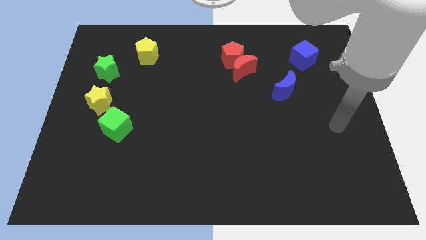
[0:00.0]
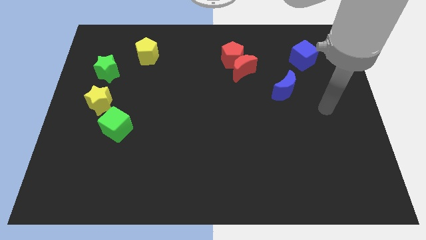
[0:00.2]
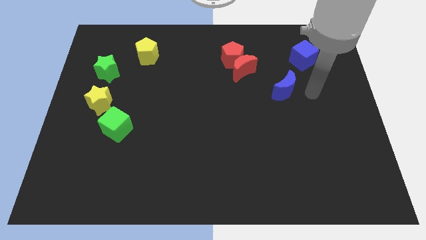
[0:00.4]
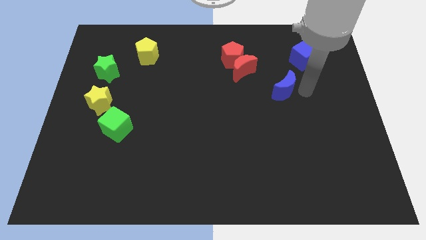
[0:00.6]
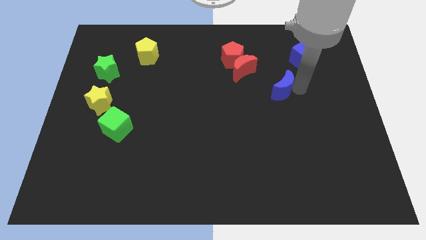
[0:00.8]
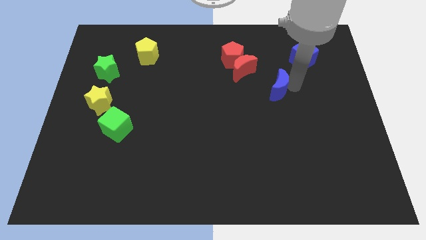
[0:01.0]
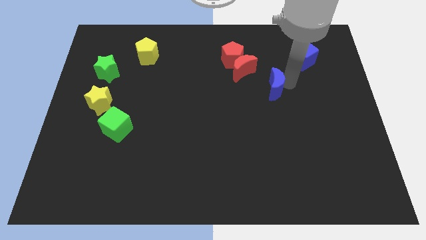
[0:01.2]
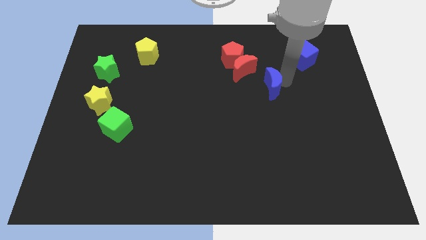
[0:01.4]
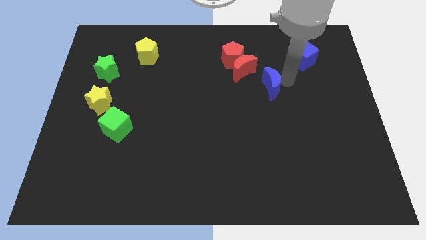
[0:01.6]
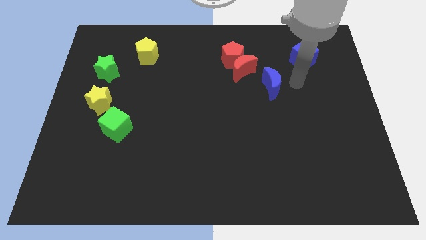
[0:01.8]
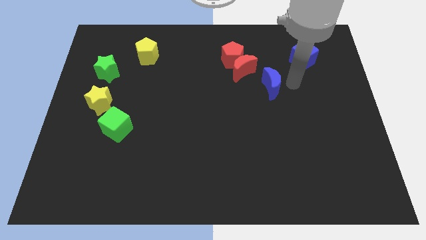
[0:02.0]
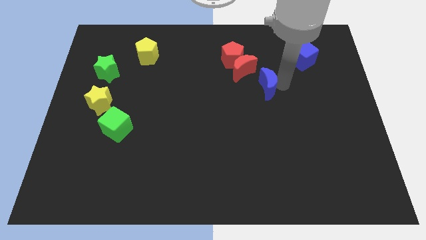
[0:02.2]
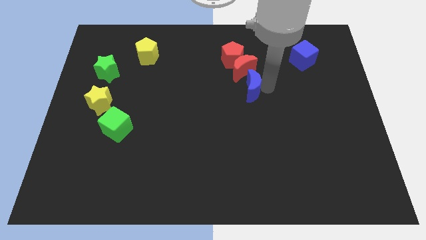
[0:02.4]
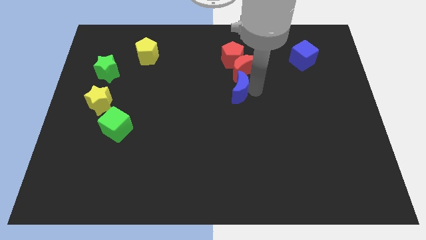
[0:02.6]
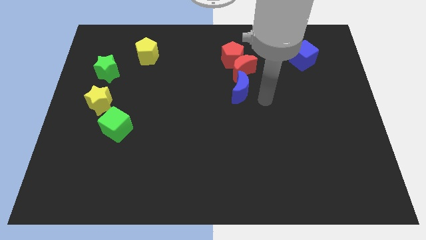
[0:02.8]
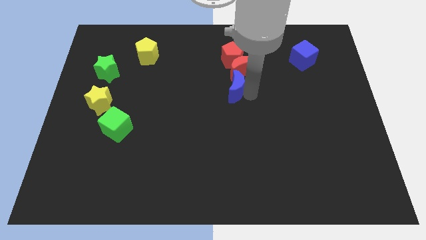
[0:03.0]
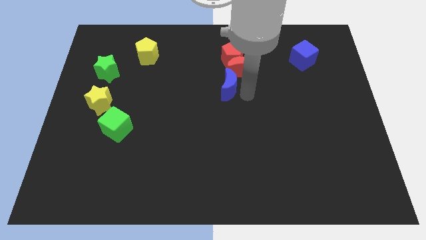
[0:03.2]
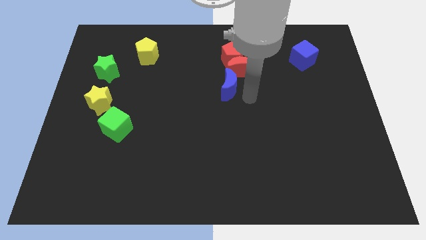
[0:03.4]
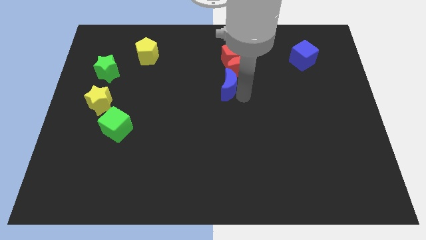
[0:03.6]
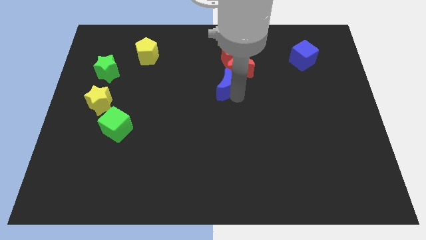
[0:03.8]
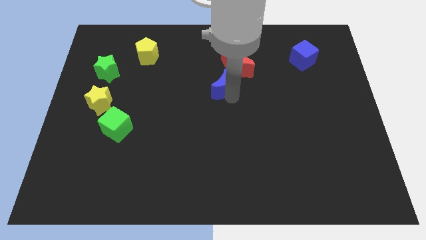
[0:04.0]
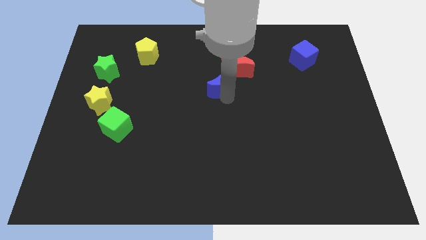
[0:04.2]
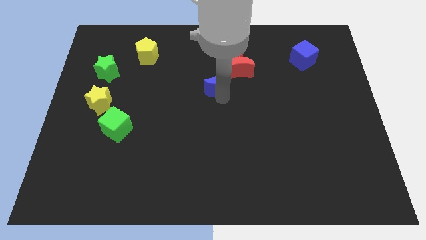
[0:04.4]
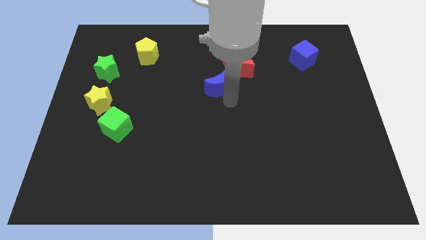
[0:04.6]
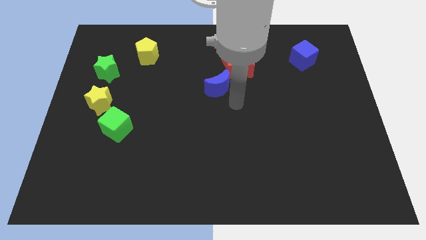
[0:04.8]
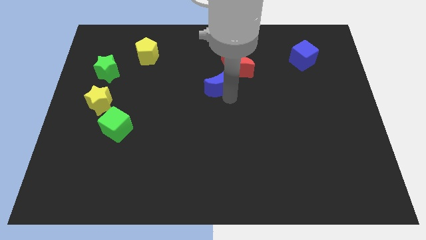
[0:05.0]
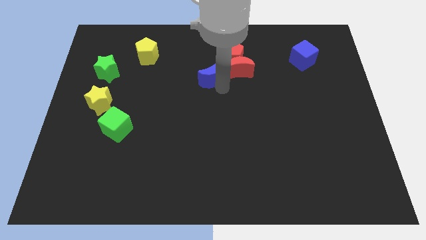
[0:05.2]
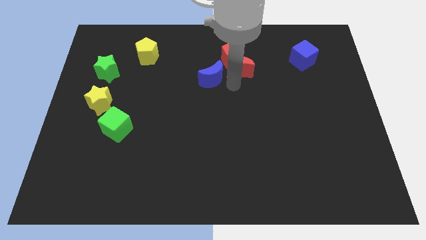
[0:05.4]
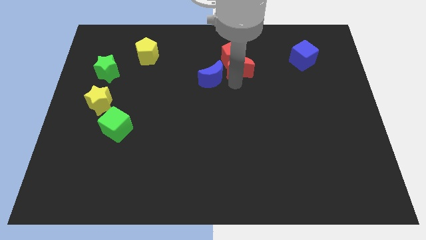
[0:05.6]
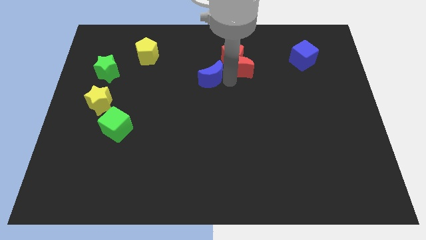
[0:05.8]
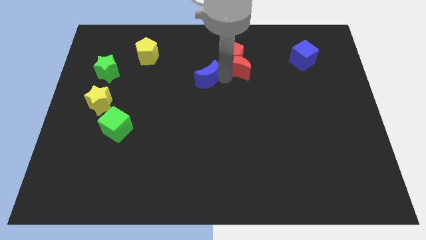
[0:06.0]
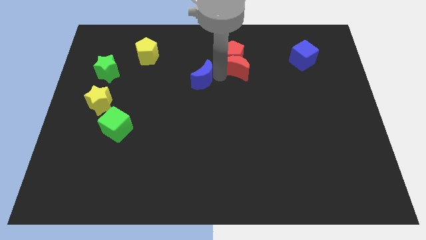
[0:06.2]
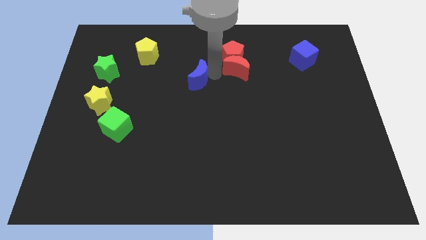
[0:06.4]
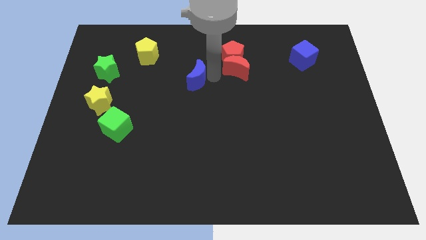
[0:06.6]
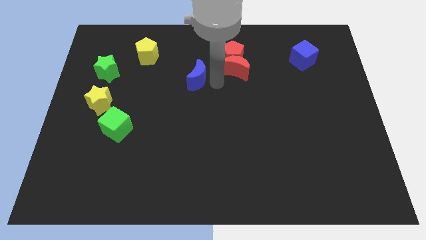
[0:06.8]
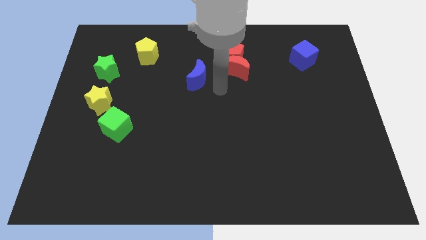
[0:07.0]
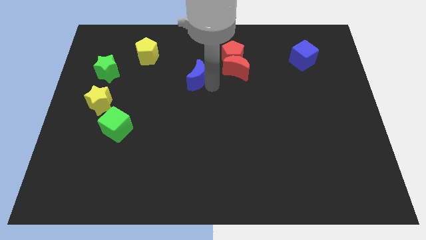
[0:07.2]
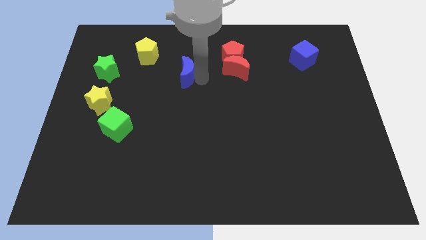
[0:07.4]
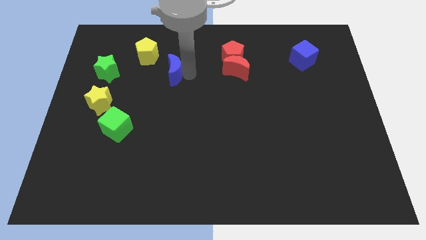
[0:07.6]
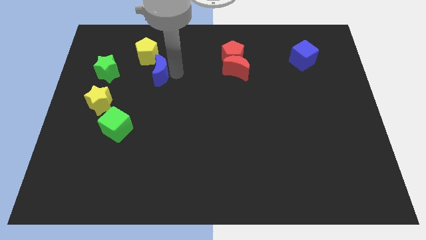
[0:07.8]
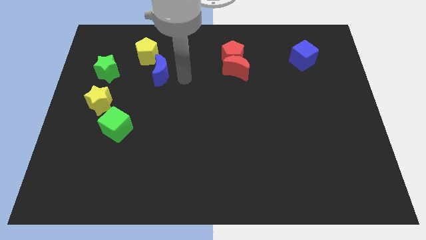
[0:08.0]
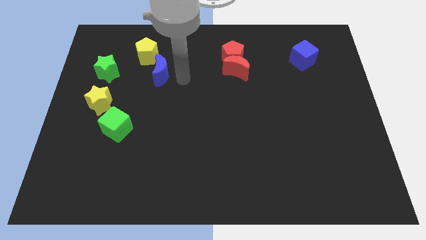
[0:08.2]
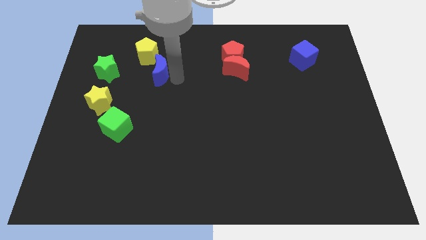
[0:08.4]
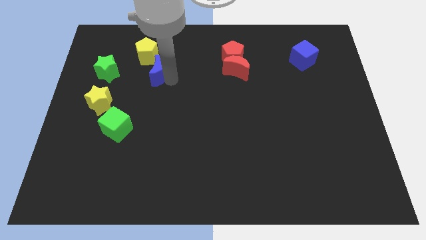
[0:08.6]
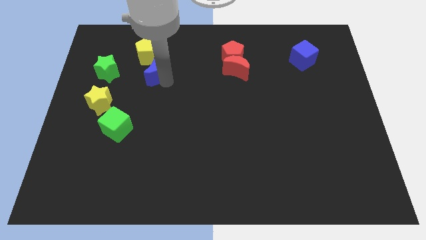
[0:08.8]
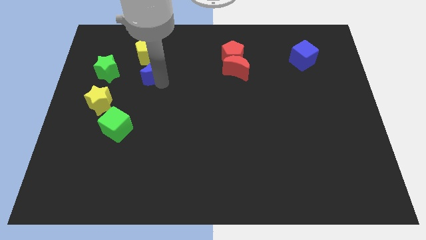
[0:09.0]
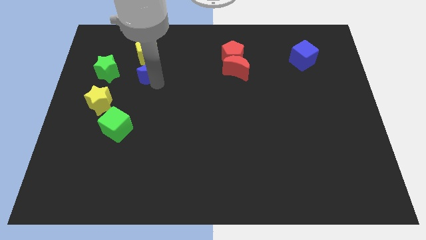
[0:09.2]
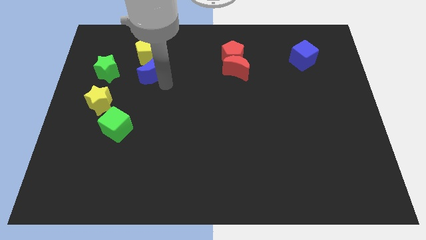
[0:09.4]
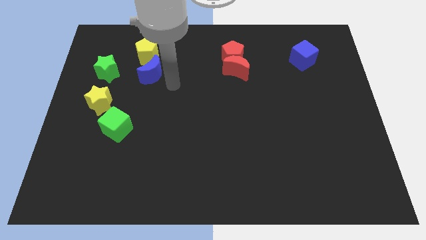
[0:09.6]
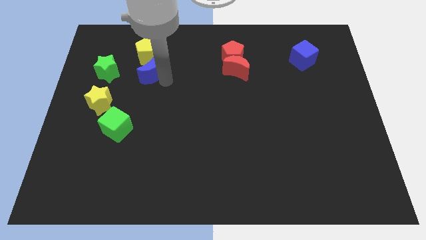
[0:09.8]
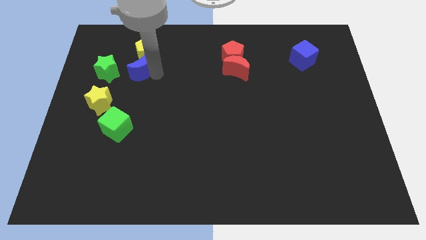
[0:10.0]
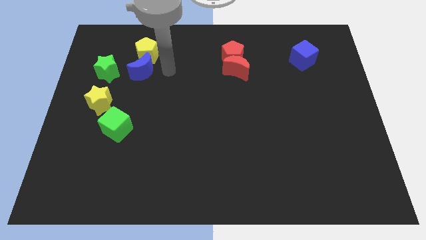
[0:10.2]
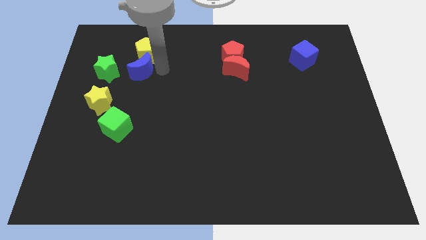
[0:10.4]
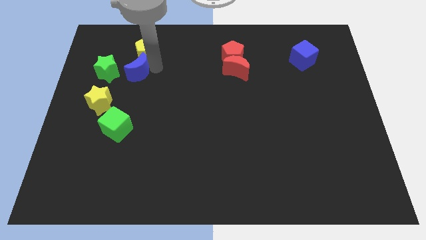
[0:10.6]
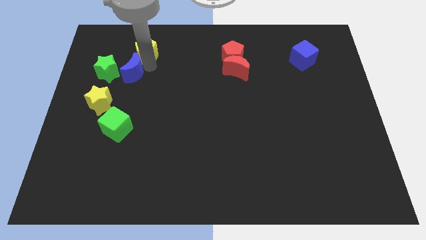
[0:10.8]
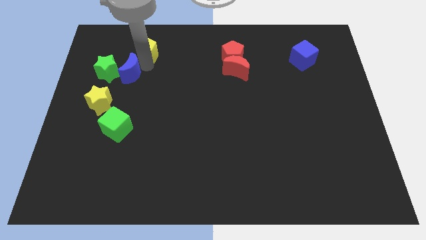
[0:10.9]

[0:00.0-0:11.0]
put the blue moon towards the green star

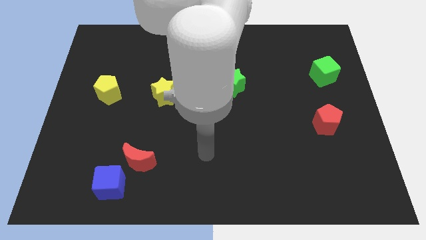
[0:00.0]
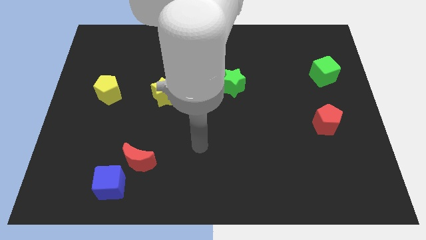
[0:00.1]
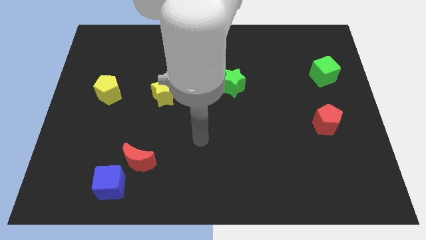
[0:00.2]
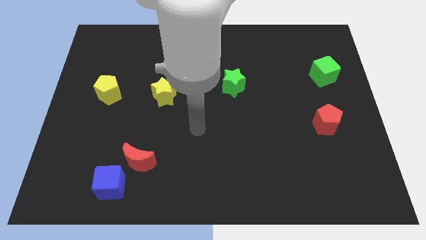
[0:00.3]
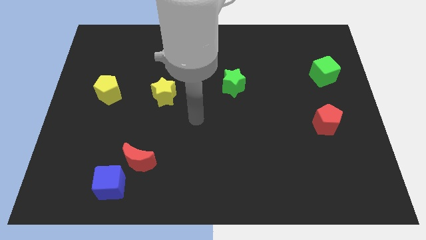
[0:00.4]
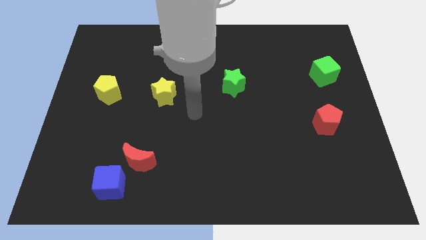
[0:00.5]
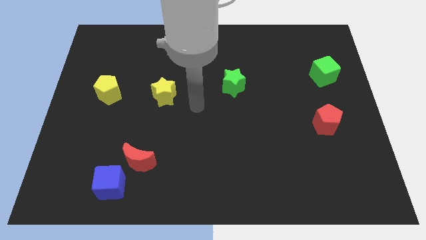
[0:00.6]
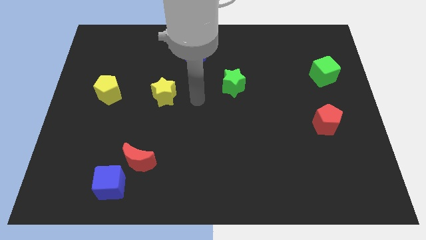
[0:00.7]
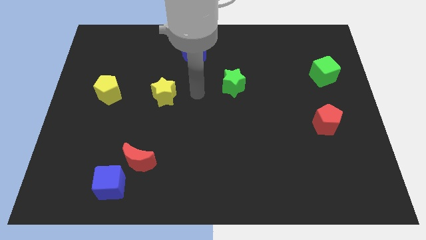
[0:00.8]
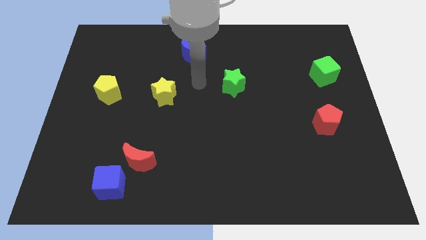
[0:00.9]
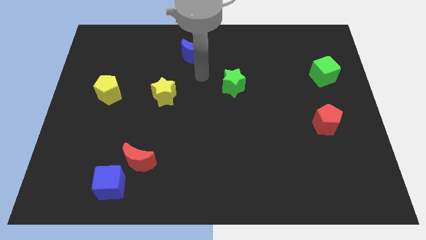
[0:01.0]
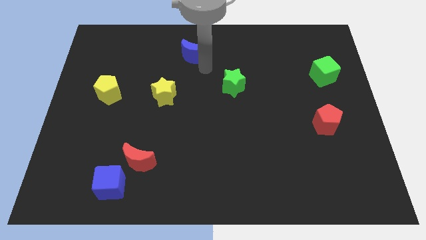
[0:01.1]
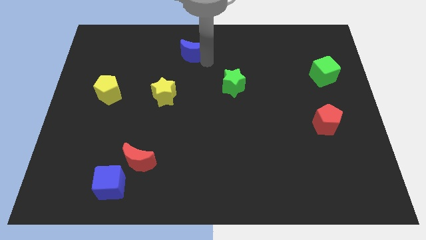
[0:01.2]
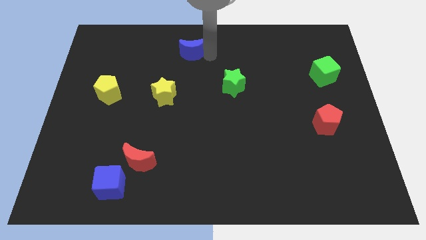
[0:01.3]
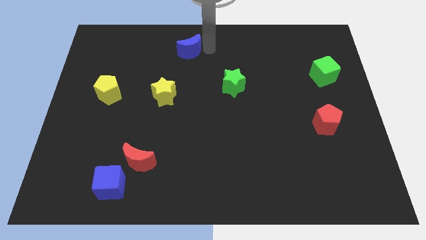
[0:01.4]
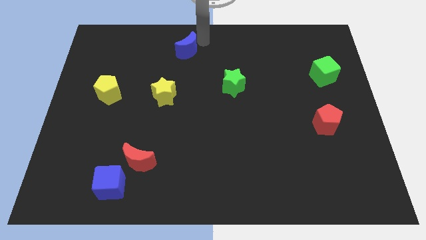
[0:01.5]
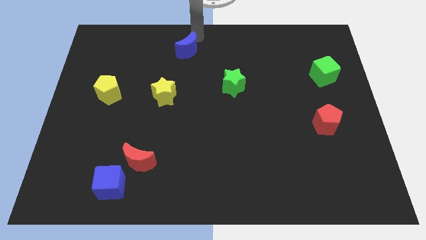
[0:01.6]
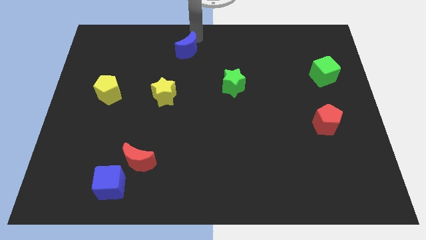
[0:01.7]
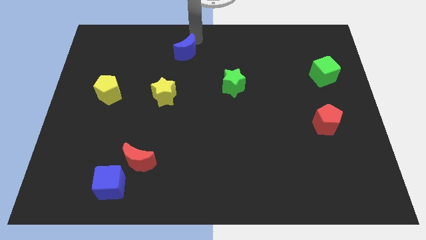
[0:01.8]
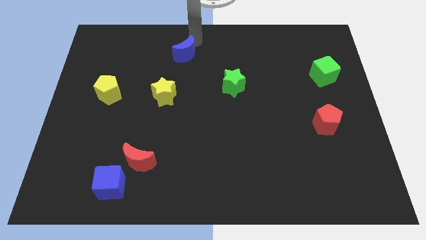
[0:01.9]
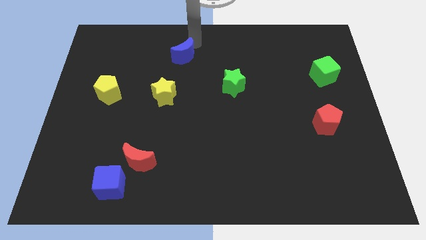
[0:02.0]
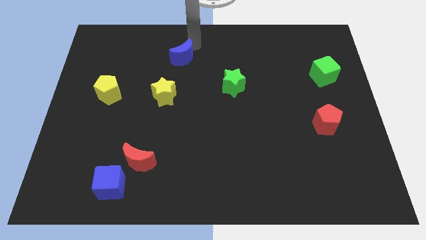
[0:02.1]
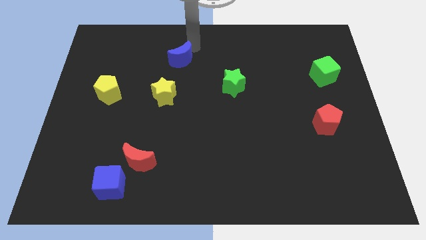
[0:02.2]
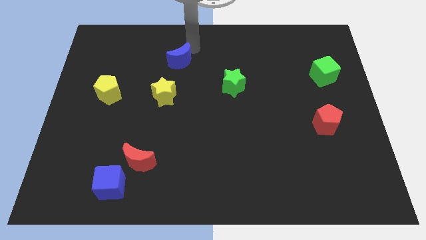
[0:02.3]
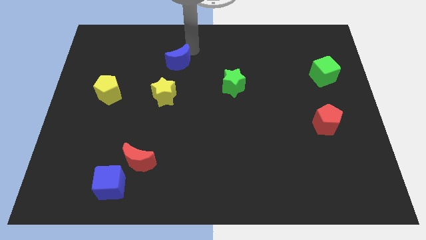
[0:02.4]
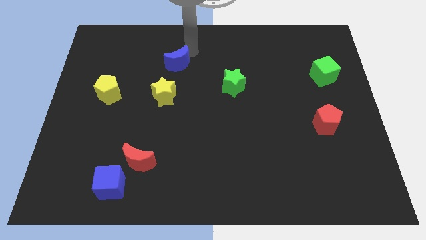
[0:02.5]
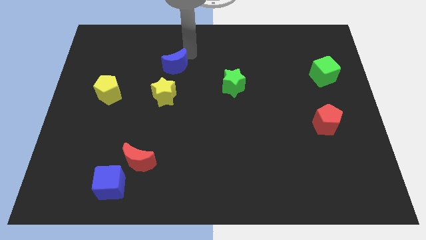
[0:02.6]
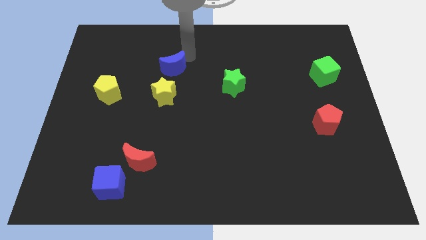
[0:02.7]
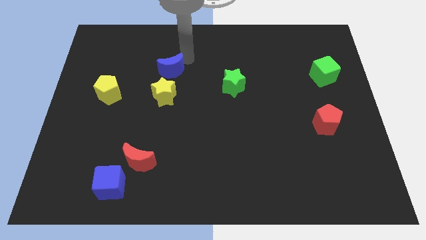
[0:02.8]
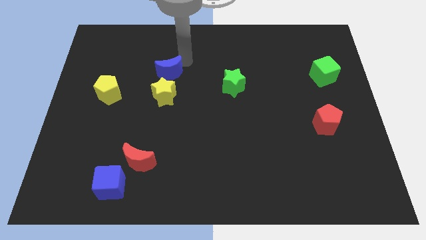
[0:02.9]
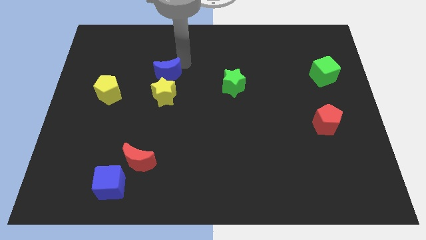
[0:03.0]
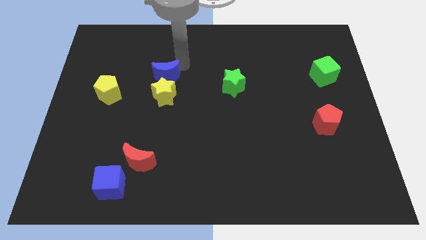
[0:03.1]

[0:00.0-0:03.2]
push the blue moon close to the yellow star
